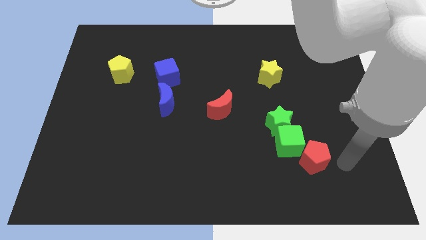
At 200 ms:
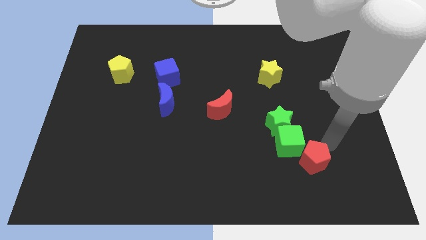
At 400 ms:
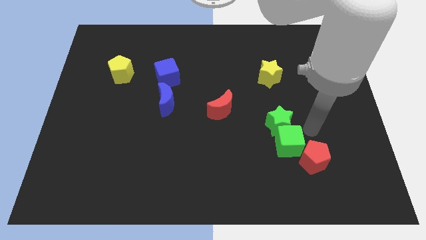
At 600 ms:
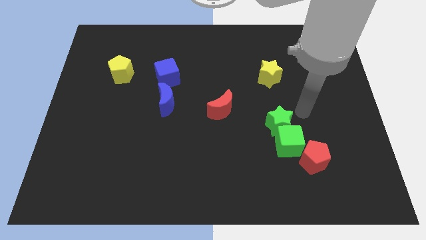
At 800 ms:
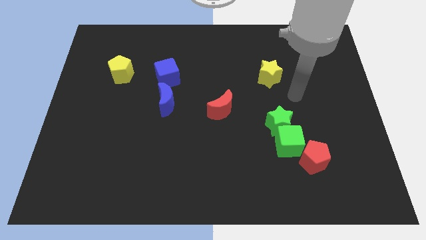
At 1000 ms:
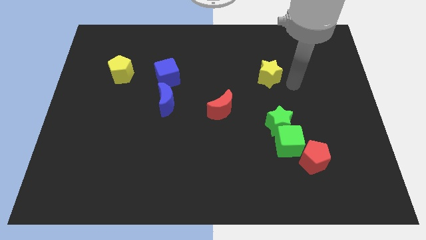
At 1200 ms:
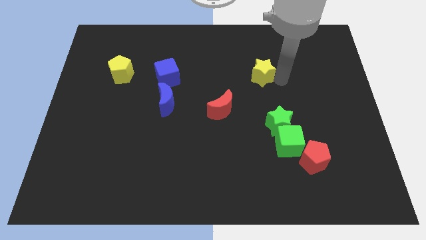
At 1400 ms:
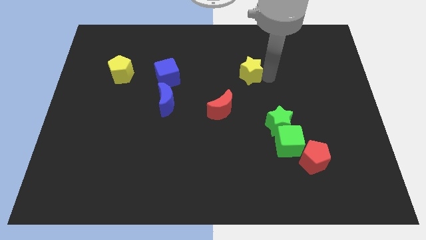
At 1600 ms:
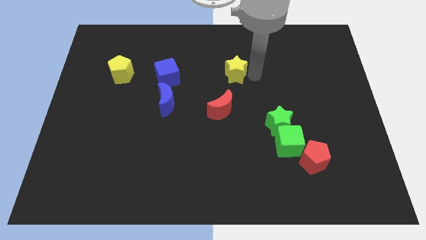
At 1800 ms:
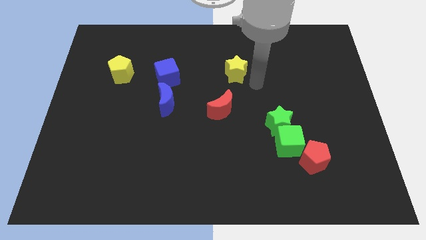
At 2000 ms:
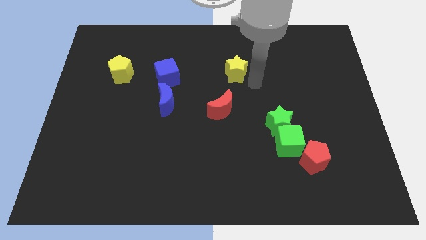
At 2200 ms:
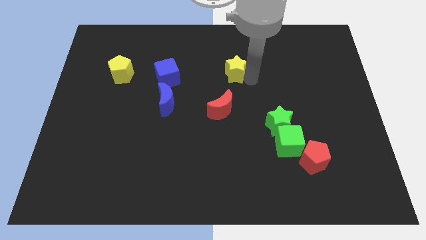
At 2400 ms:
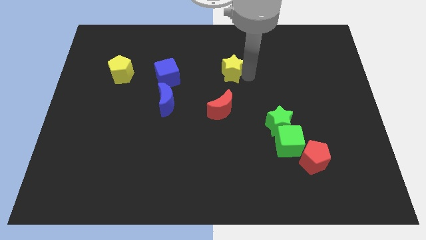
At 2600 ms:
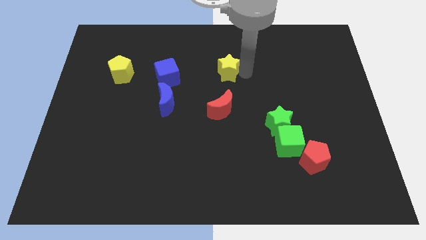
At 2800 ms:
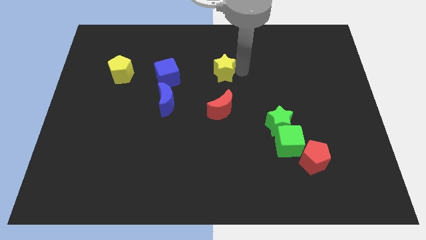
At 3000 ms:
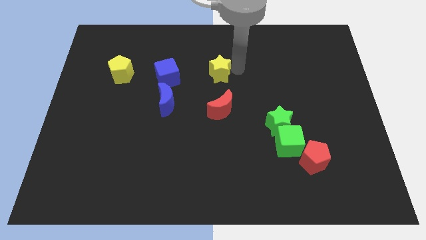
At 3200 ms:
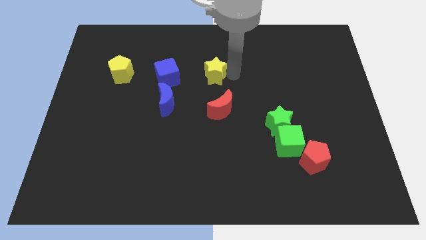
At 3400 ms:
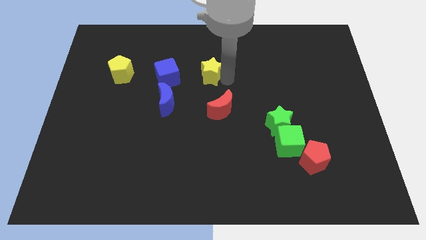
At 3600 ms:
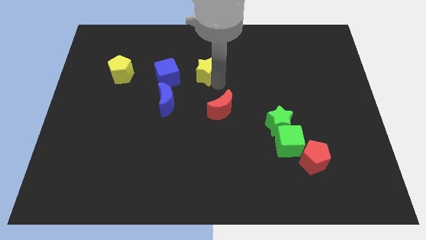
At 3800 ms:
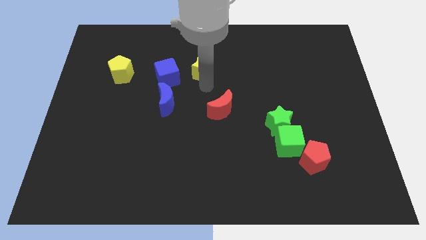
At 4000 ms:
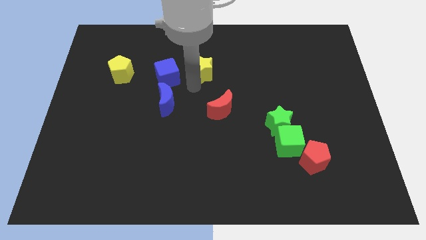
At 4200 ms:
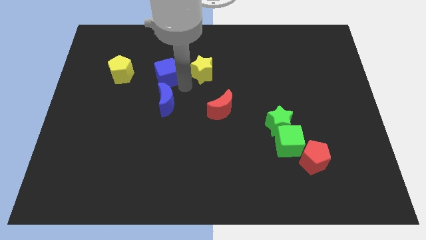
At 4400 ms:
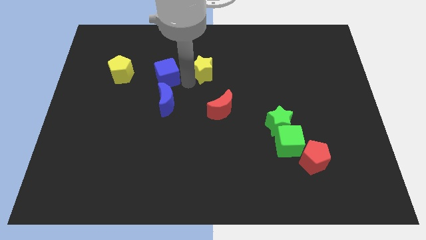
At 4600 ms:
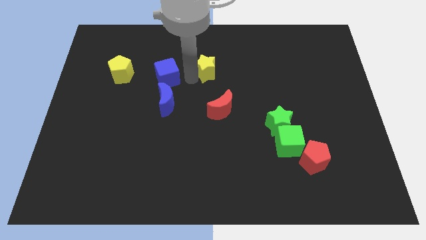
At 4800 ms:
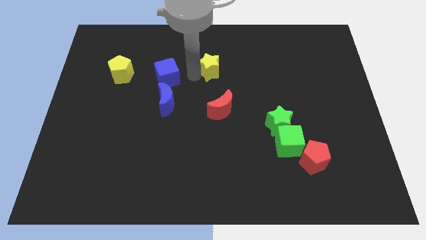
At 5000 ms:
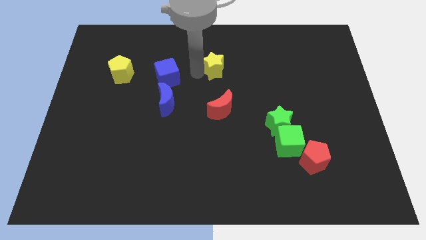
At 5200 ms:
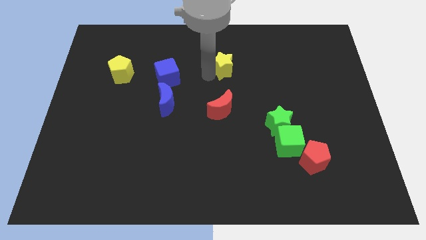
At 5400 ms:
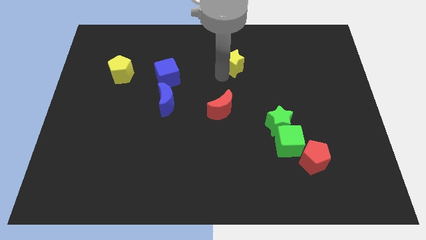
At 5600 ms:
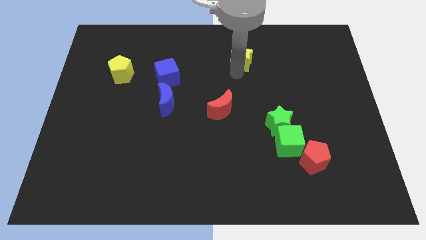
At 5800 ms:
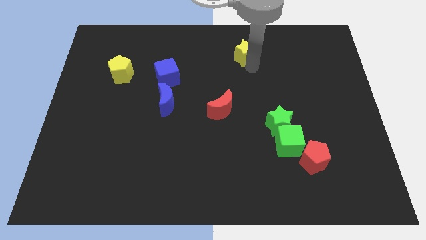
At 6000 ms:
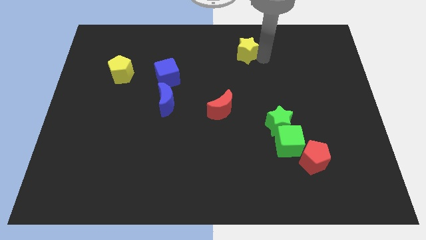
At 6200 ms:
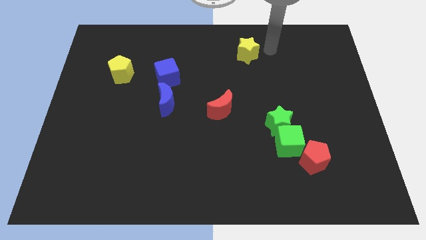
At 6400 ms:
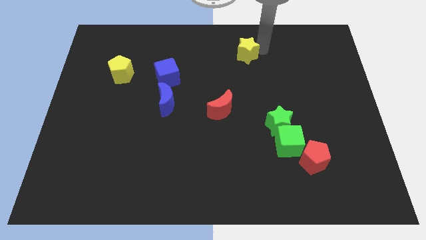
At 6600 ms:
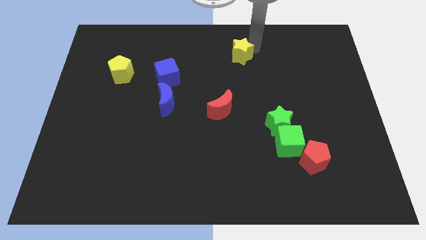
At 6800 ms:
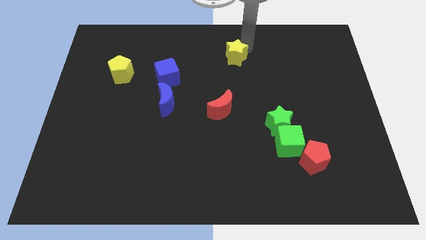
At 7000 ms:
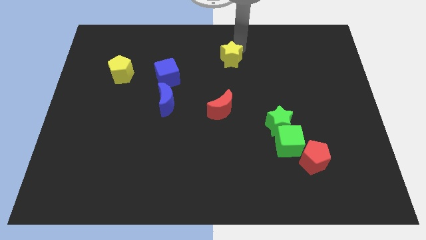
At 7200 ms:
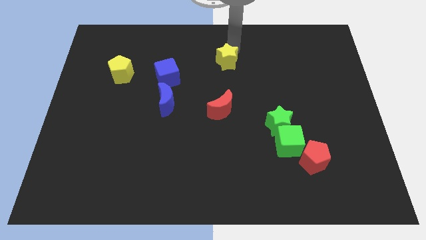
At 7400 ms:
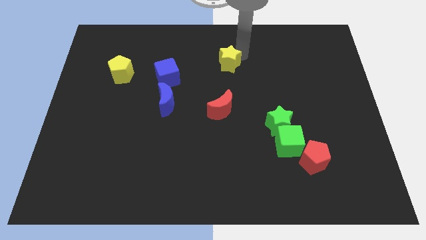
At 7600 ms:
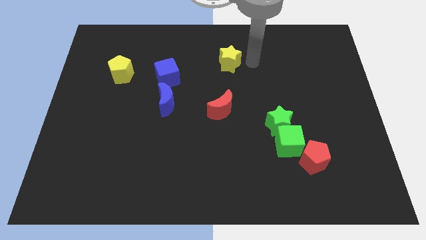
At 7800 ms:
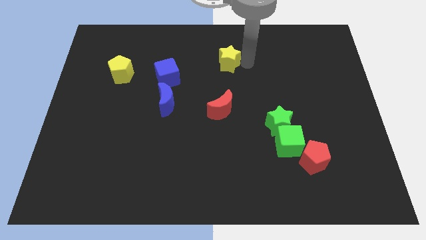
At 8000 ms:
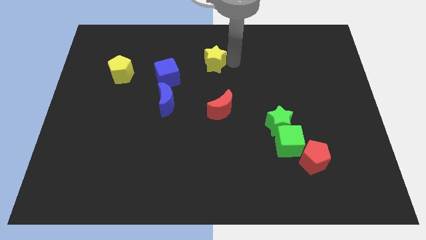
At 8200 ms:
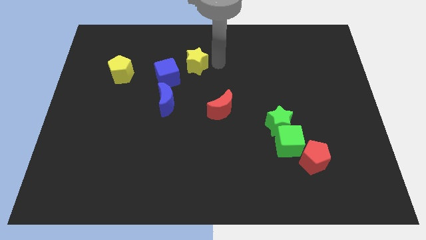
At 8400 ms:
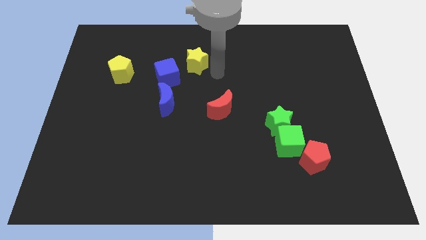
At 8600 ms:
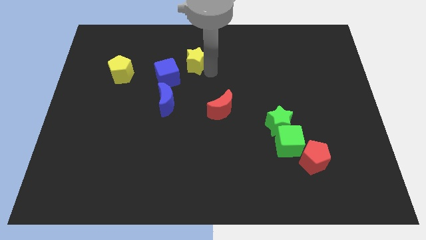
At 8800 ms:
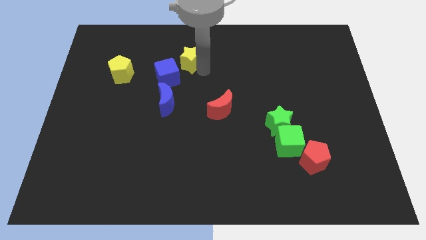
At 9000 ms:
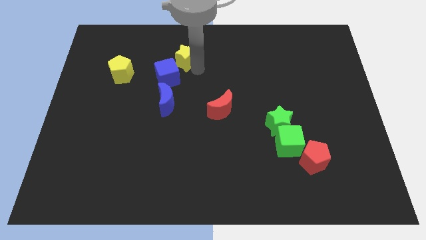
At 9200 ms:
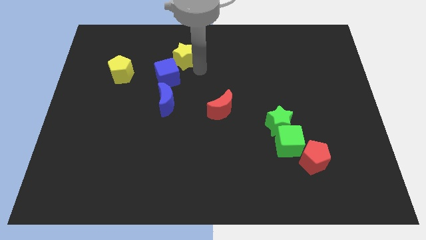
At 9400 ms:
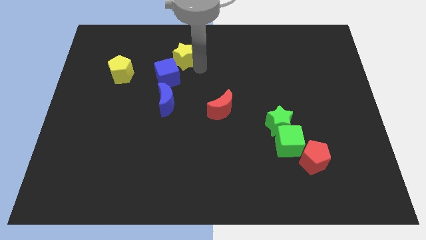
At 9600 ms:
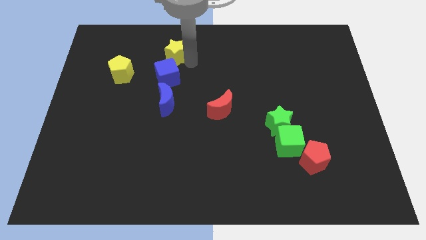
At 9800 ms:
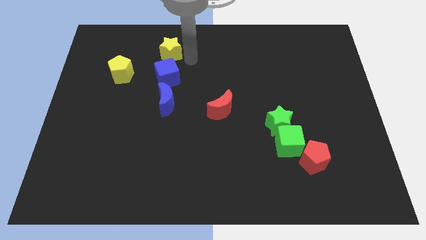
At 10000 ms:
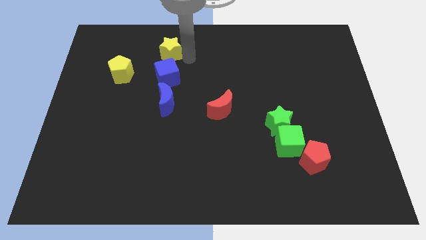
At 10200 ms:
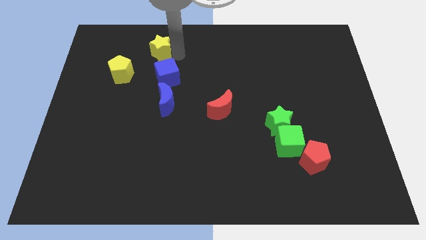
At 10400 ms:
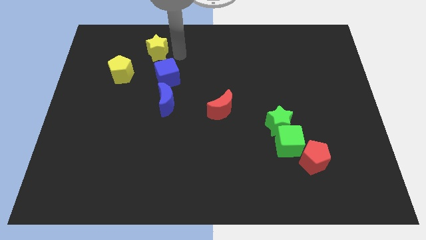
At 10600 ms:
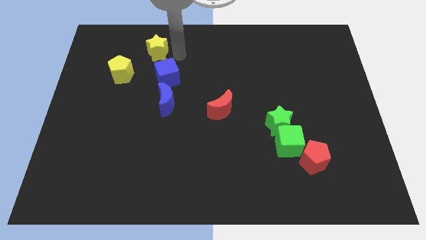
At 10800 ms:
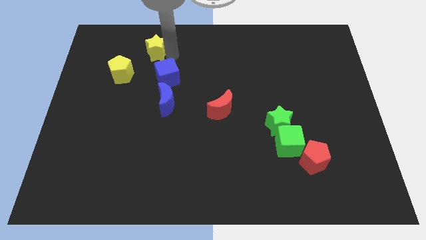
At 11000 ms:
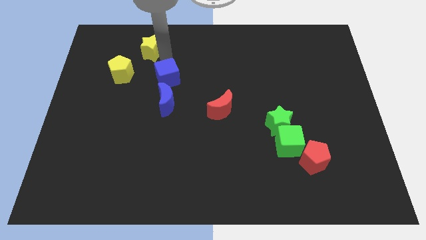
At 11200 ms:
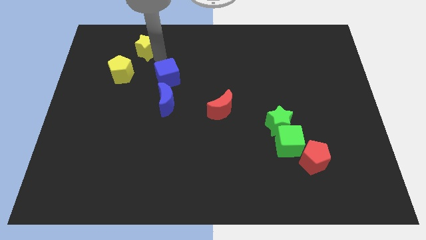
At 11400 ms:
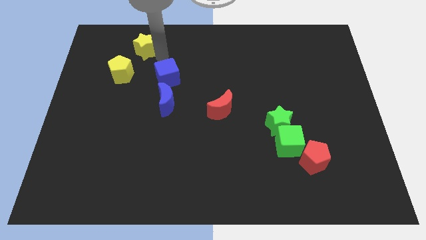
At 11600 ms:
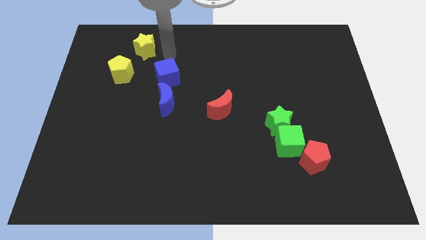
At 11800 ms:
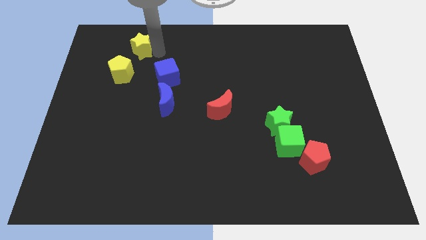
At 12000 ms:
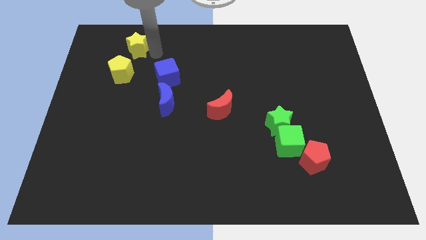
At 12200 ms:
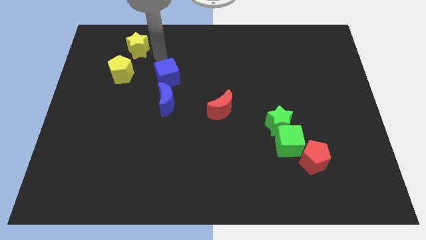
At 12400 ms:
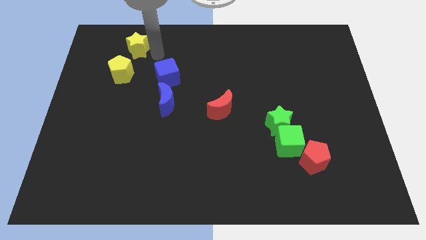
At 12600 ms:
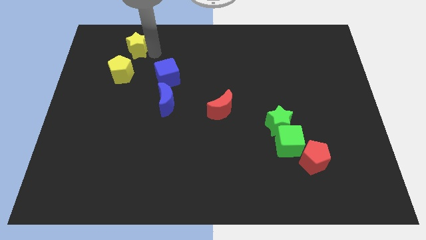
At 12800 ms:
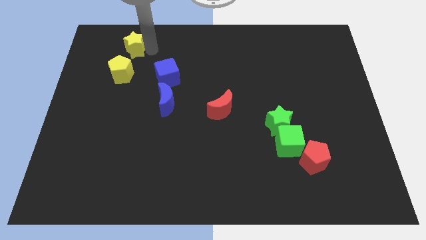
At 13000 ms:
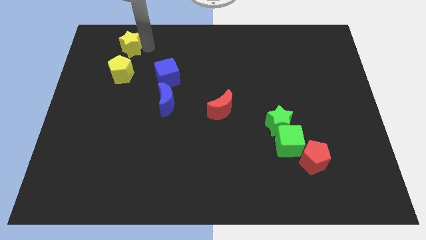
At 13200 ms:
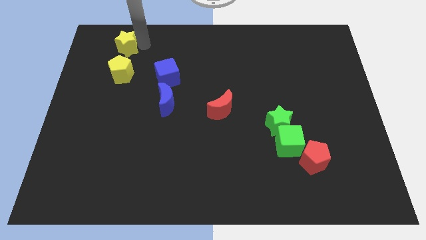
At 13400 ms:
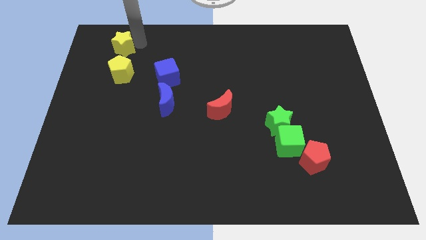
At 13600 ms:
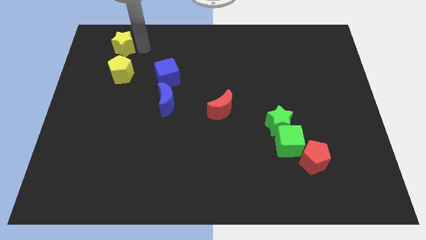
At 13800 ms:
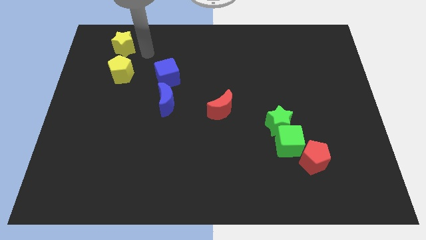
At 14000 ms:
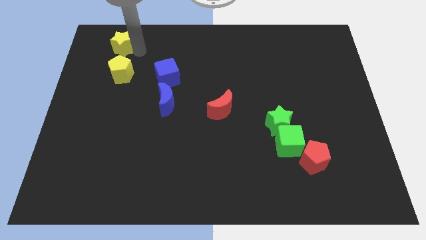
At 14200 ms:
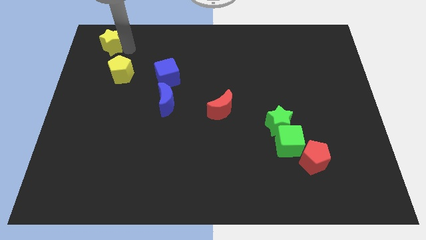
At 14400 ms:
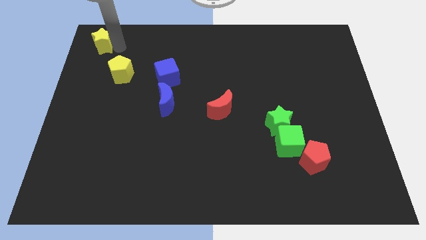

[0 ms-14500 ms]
put the yellow star to the top left of the board
